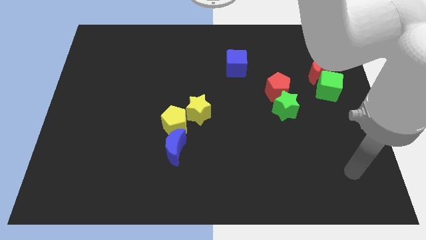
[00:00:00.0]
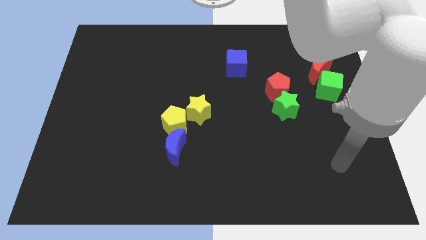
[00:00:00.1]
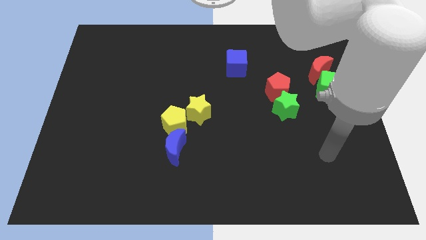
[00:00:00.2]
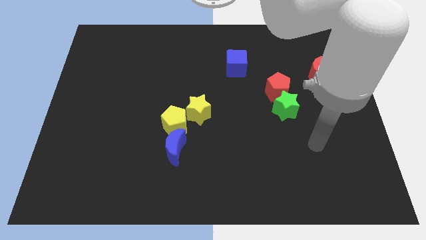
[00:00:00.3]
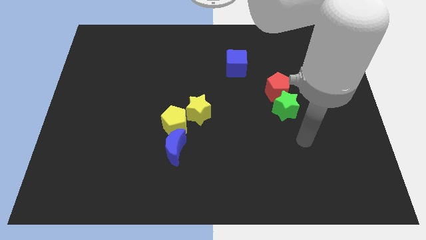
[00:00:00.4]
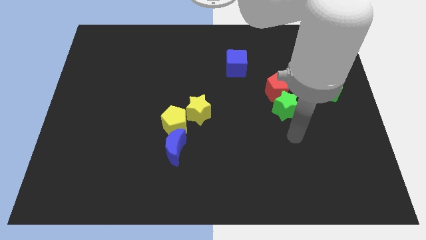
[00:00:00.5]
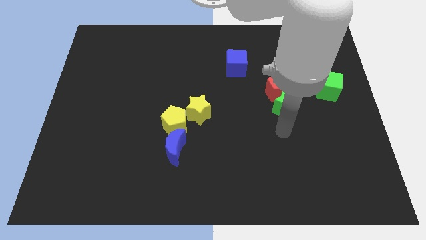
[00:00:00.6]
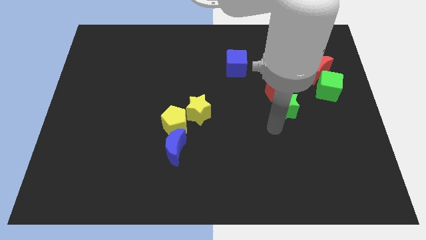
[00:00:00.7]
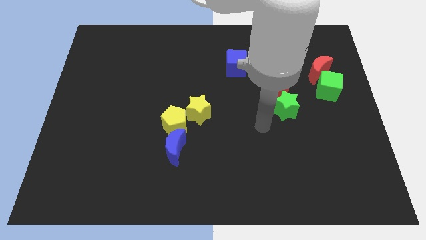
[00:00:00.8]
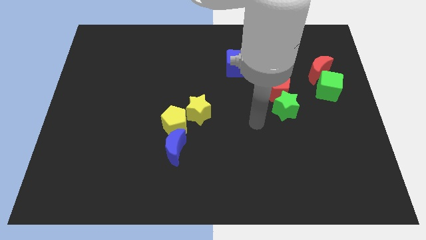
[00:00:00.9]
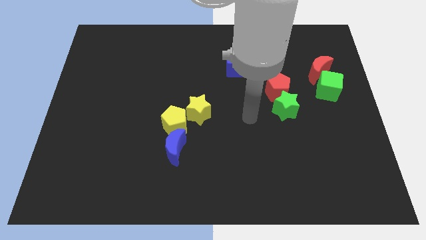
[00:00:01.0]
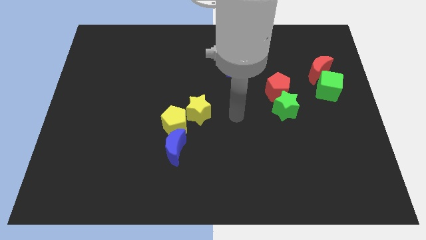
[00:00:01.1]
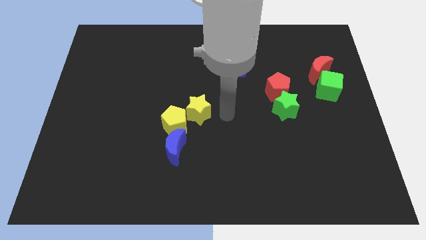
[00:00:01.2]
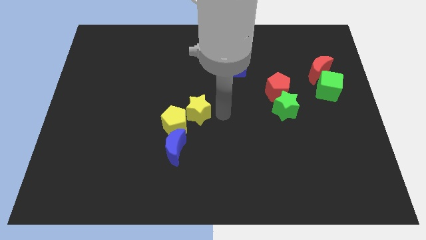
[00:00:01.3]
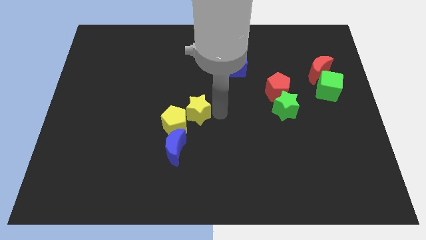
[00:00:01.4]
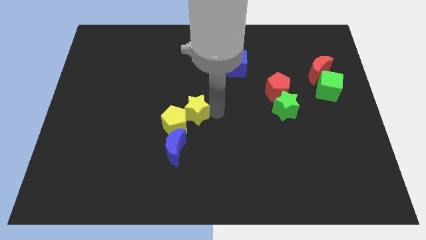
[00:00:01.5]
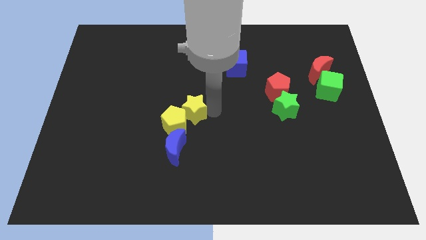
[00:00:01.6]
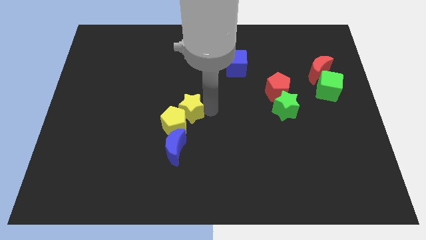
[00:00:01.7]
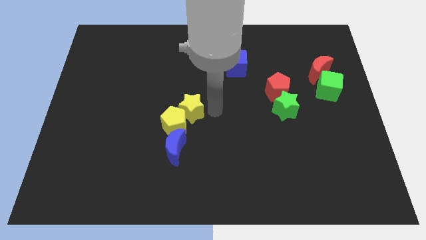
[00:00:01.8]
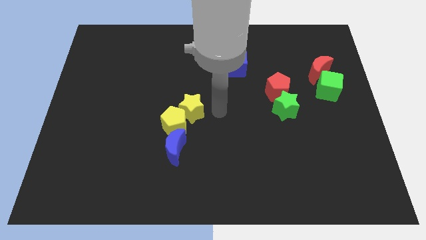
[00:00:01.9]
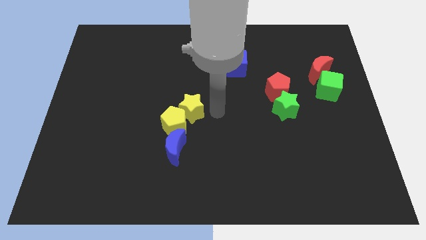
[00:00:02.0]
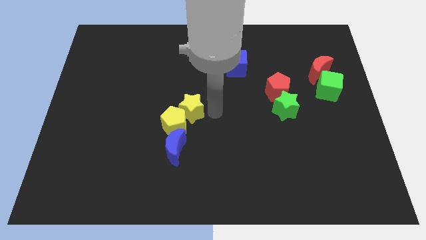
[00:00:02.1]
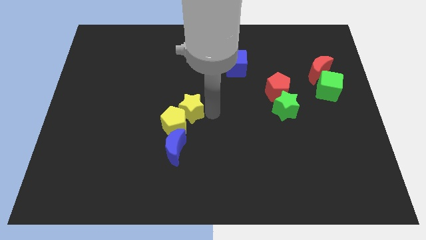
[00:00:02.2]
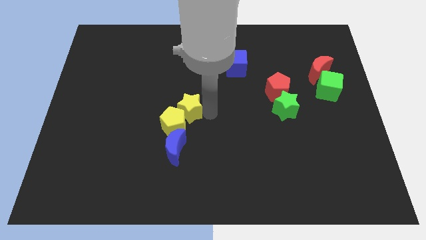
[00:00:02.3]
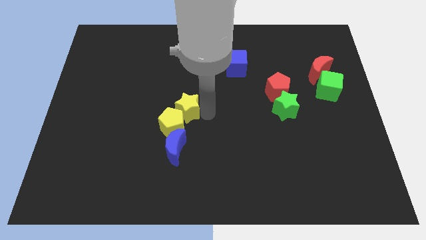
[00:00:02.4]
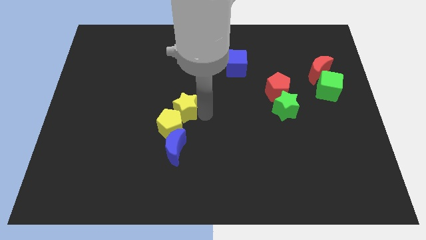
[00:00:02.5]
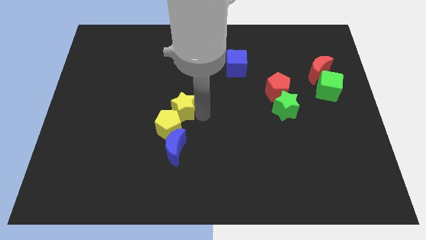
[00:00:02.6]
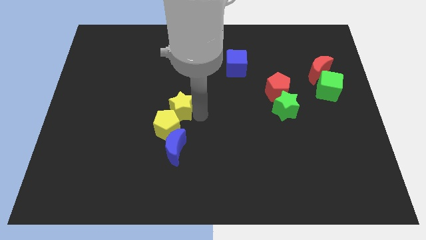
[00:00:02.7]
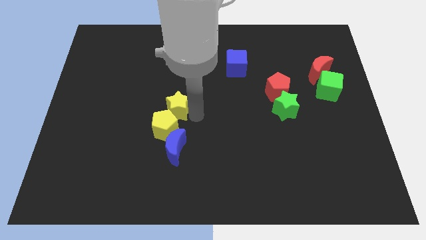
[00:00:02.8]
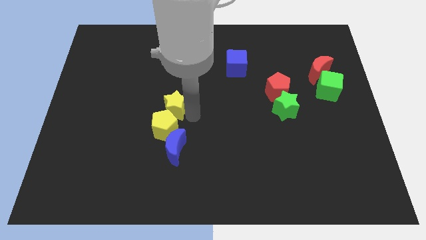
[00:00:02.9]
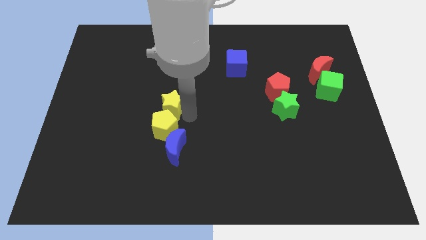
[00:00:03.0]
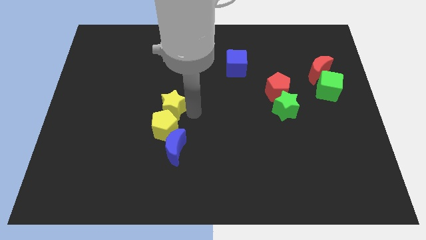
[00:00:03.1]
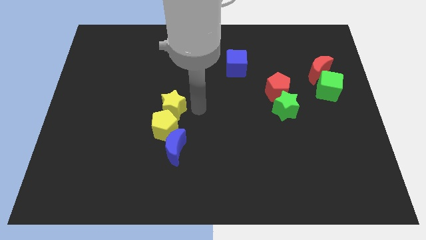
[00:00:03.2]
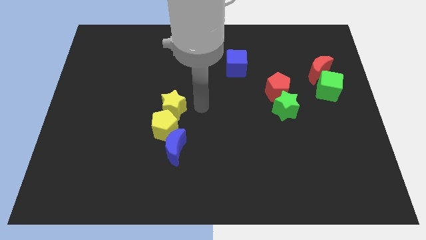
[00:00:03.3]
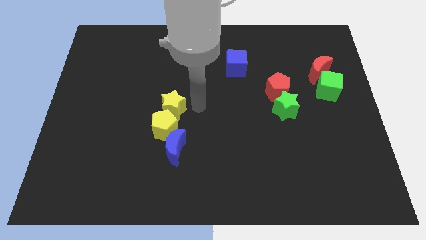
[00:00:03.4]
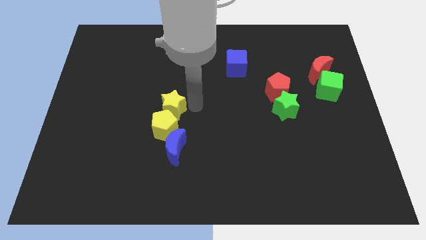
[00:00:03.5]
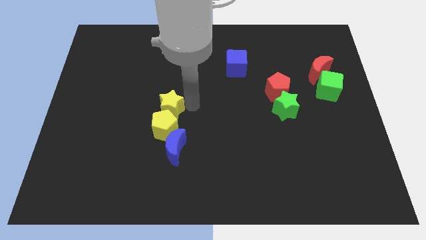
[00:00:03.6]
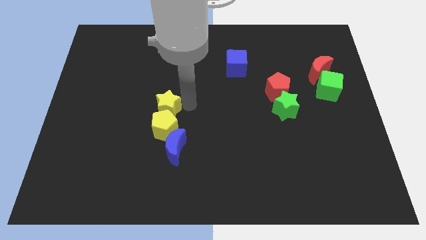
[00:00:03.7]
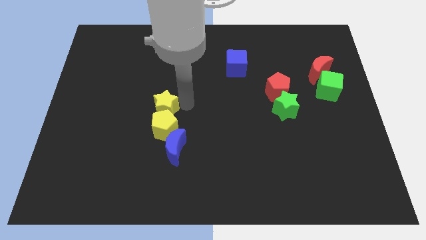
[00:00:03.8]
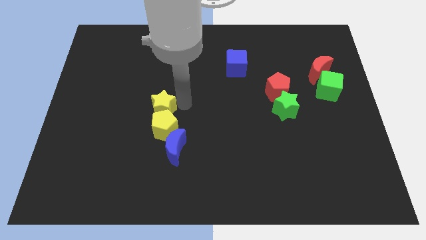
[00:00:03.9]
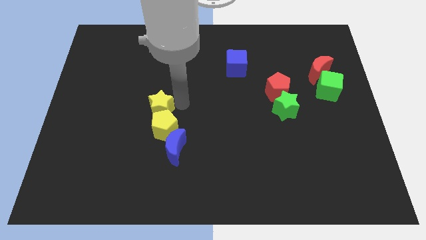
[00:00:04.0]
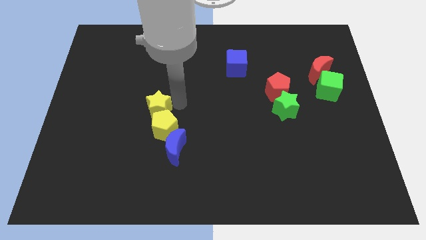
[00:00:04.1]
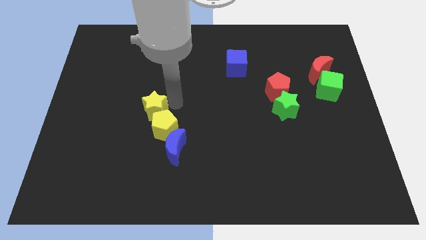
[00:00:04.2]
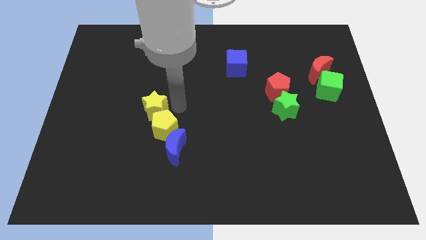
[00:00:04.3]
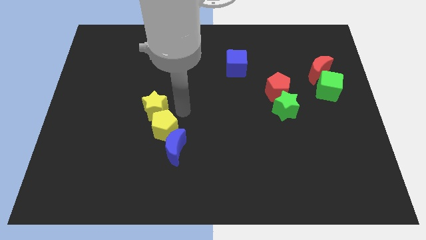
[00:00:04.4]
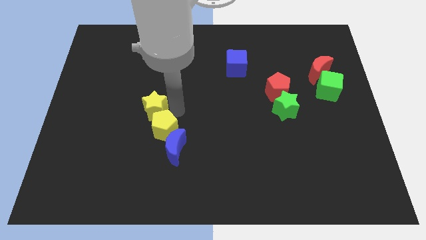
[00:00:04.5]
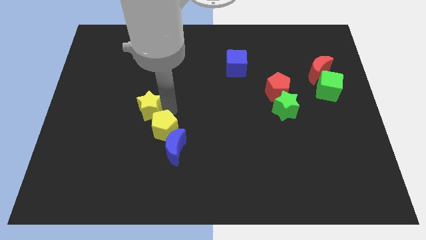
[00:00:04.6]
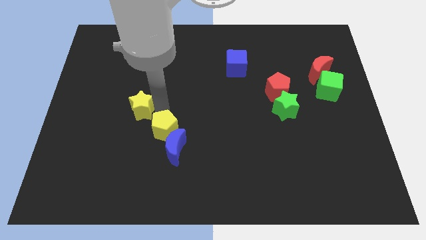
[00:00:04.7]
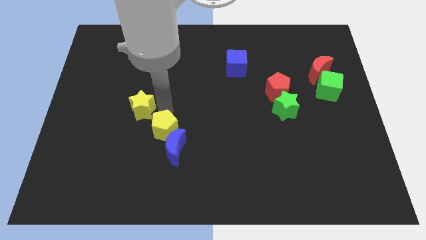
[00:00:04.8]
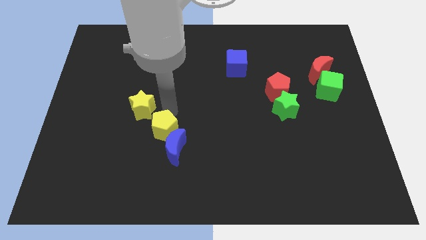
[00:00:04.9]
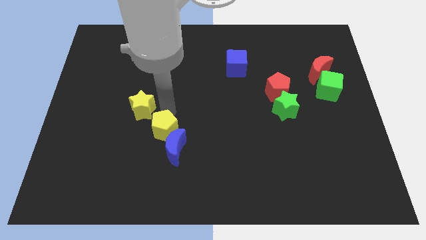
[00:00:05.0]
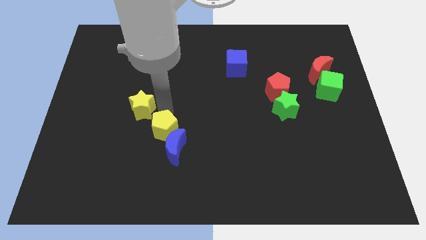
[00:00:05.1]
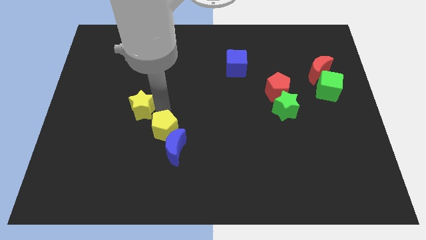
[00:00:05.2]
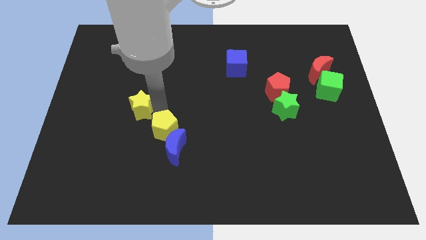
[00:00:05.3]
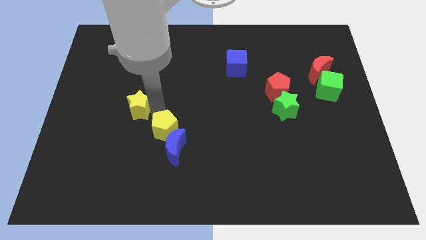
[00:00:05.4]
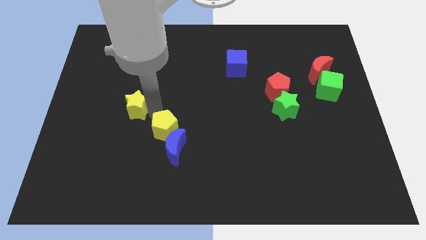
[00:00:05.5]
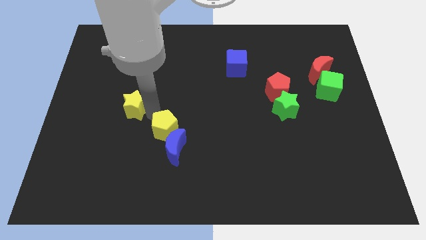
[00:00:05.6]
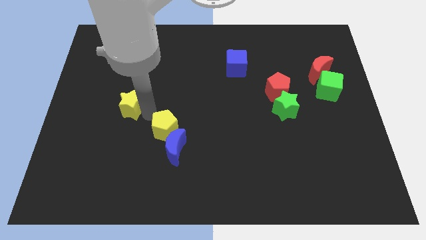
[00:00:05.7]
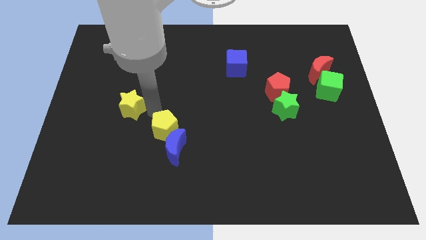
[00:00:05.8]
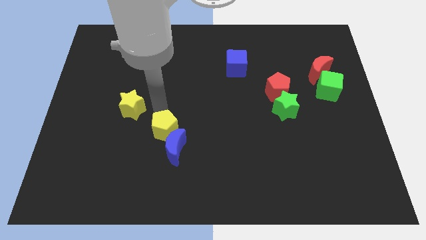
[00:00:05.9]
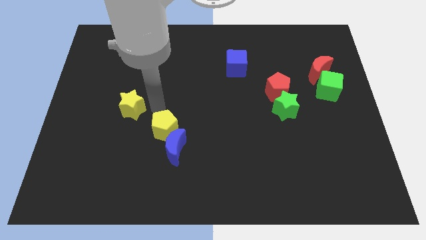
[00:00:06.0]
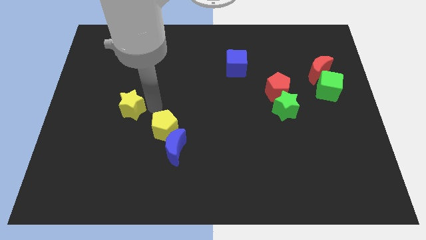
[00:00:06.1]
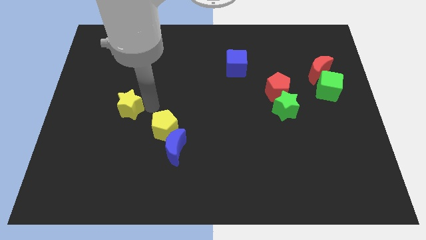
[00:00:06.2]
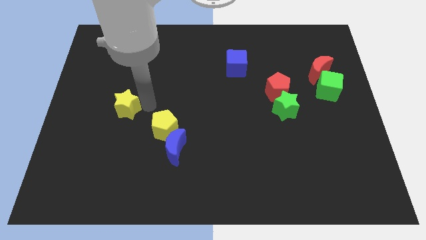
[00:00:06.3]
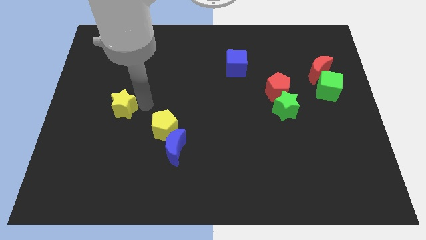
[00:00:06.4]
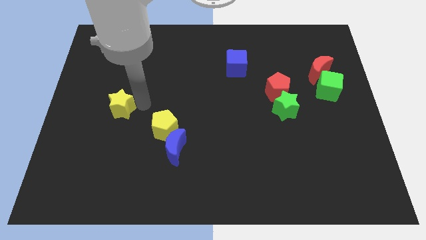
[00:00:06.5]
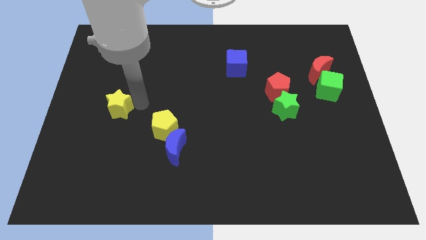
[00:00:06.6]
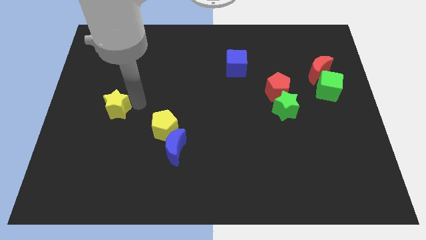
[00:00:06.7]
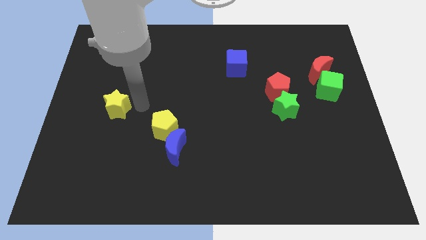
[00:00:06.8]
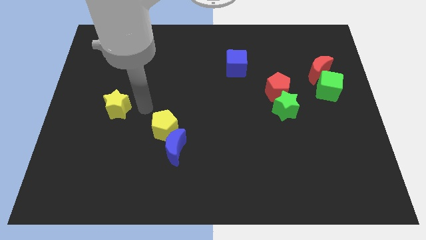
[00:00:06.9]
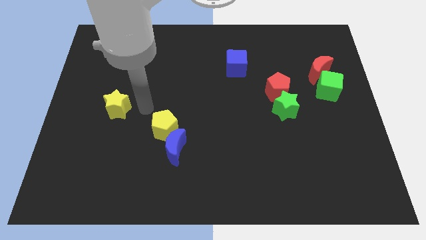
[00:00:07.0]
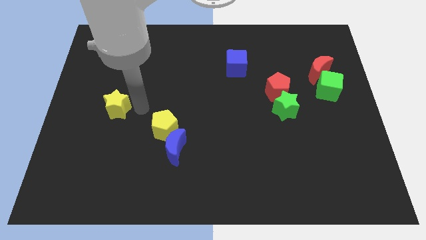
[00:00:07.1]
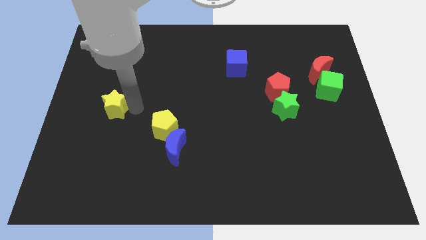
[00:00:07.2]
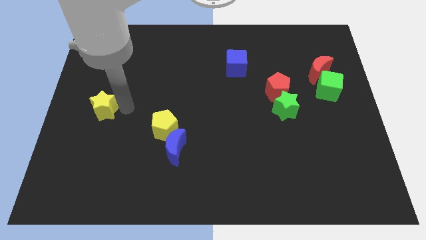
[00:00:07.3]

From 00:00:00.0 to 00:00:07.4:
slide the yellow star to the center left
